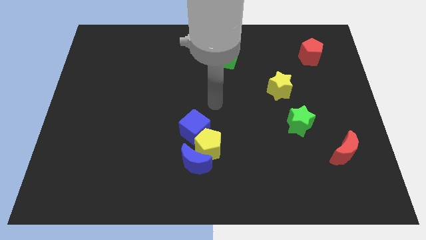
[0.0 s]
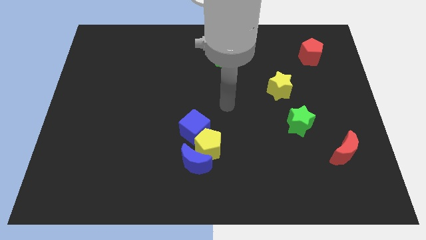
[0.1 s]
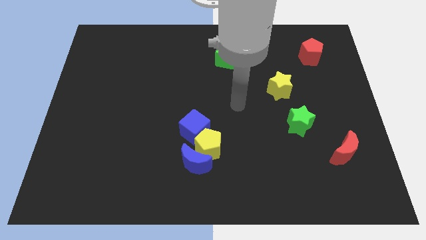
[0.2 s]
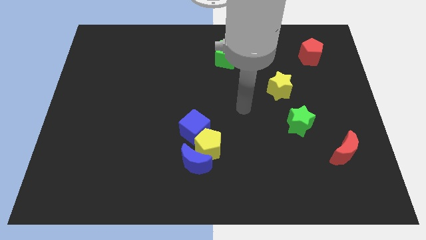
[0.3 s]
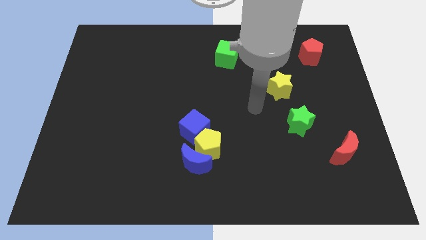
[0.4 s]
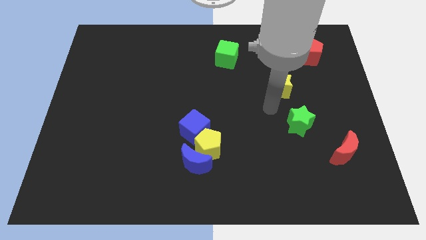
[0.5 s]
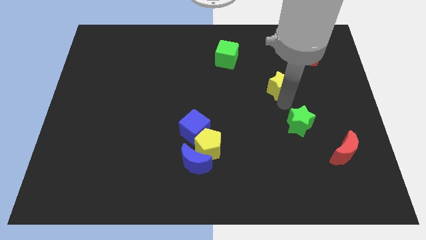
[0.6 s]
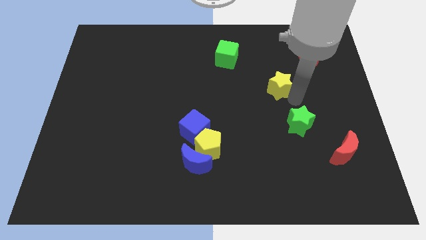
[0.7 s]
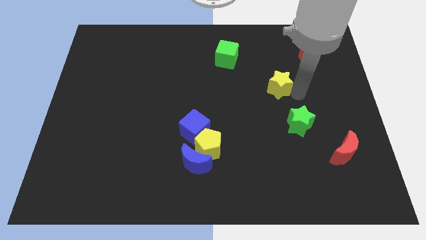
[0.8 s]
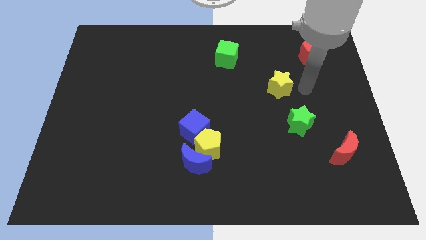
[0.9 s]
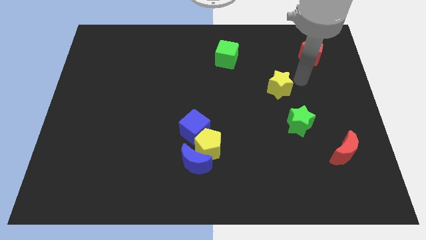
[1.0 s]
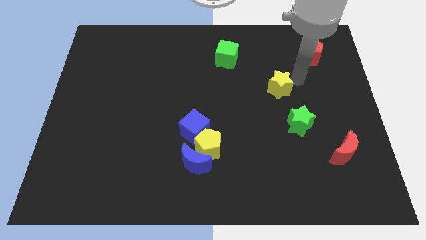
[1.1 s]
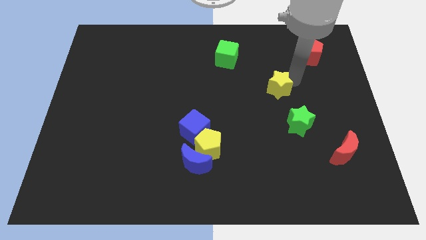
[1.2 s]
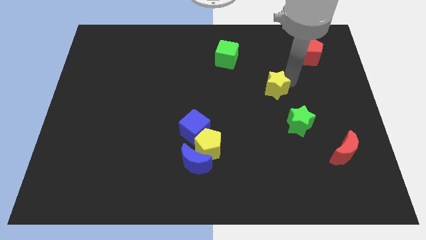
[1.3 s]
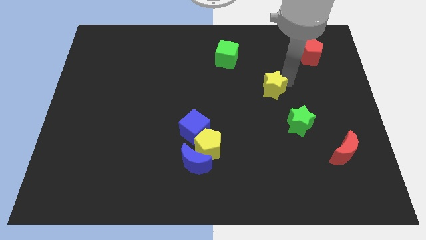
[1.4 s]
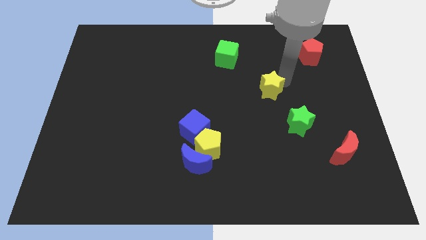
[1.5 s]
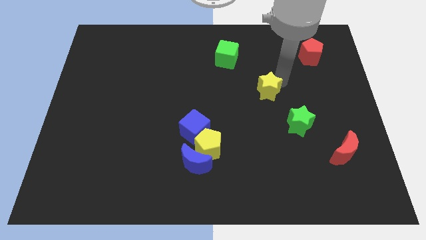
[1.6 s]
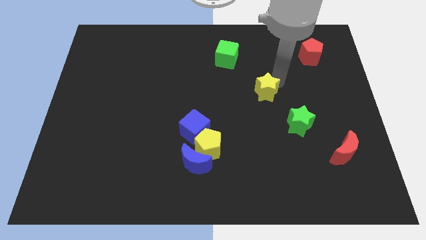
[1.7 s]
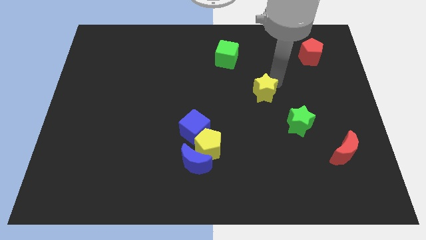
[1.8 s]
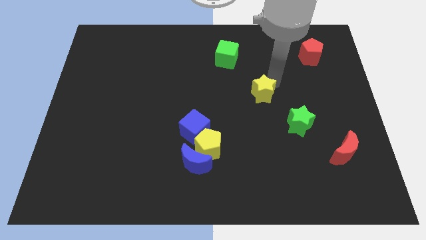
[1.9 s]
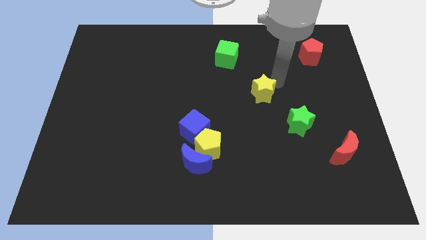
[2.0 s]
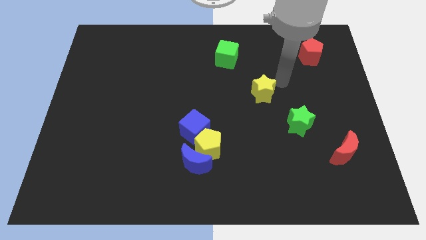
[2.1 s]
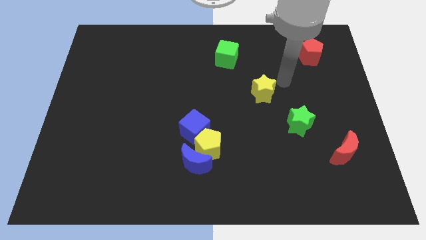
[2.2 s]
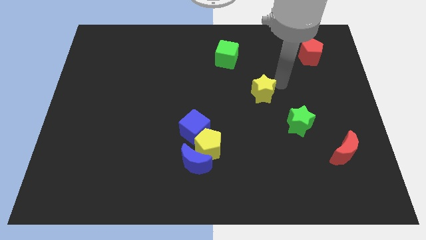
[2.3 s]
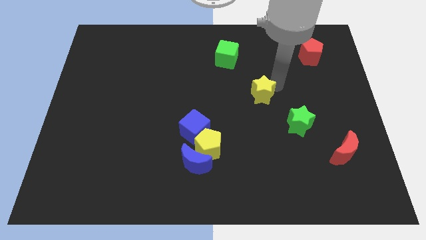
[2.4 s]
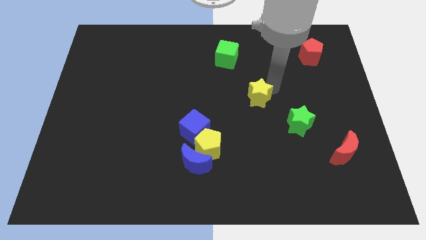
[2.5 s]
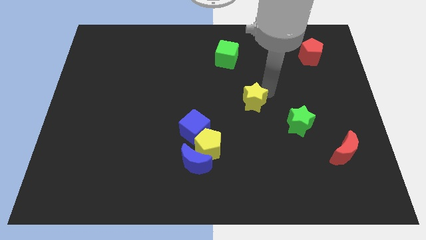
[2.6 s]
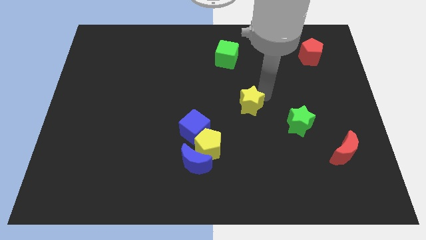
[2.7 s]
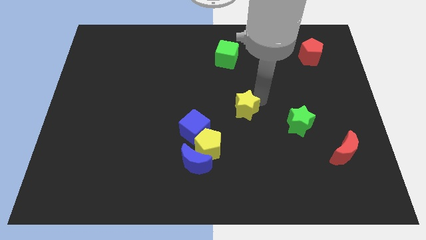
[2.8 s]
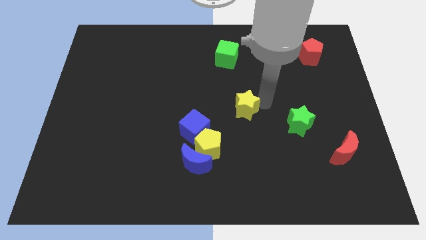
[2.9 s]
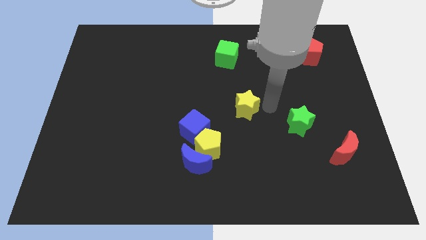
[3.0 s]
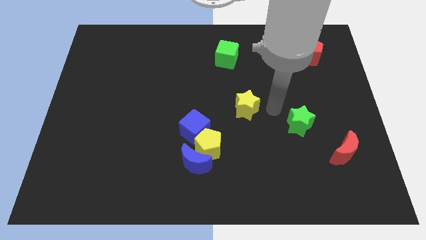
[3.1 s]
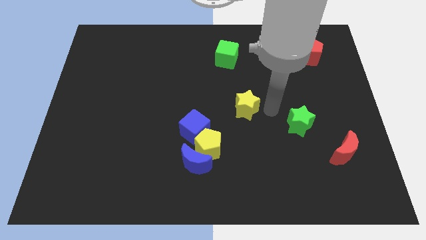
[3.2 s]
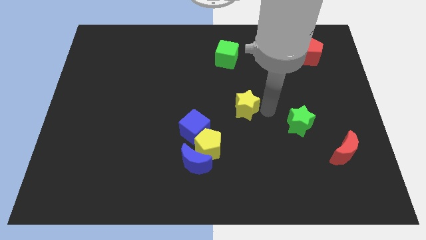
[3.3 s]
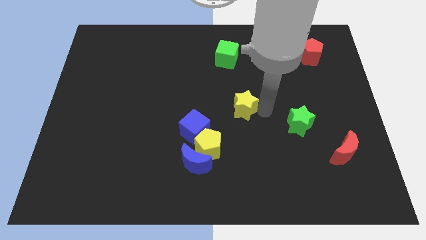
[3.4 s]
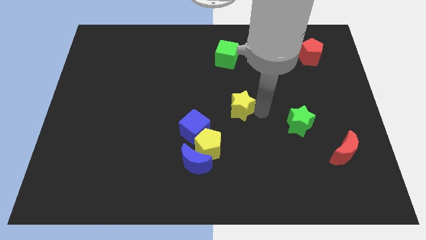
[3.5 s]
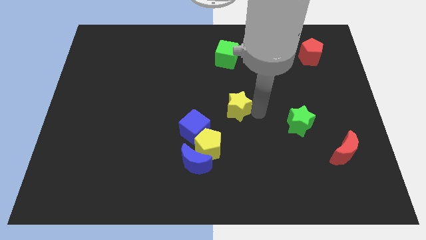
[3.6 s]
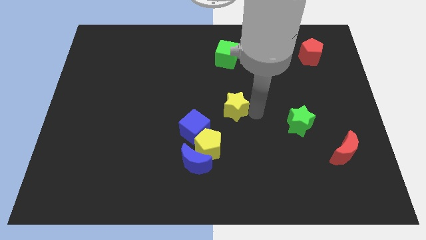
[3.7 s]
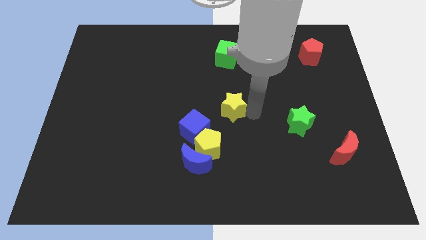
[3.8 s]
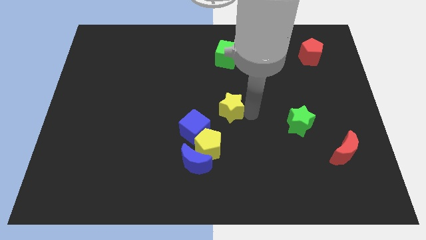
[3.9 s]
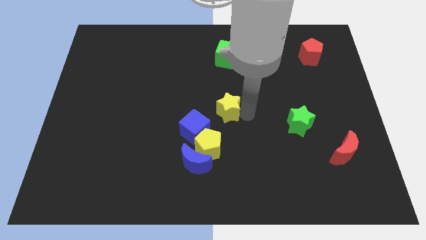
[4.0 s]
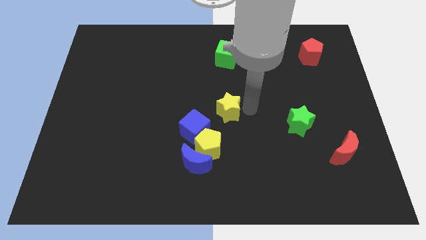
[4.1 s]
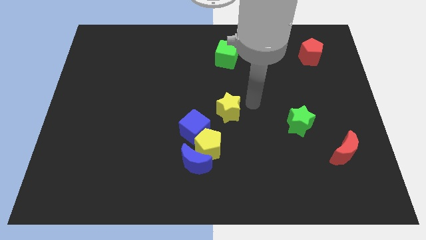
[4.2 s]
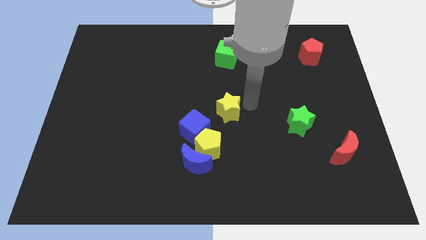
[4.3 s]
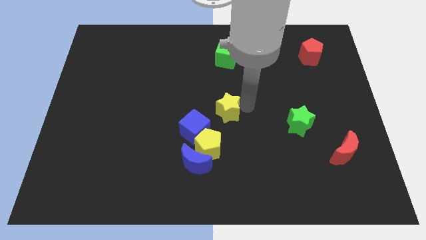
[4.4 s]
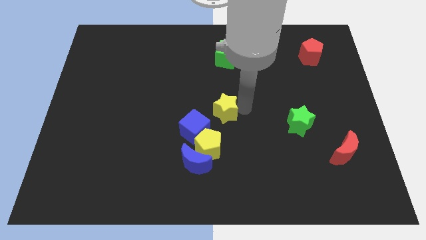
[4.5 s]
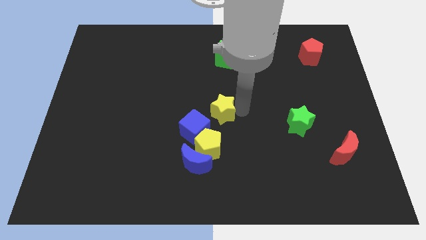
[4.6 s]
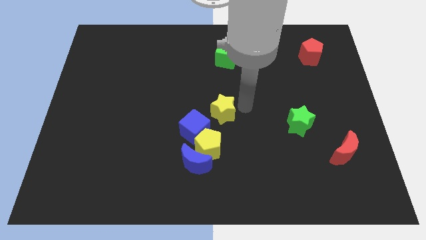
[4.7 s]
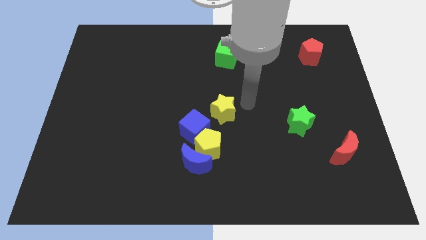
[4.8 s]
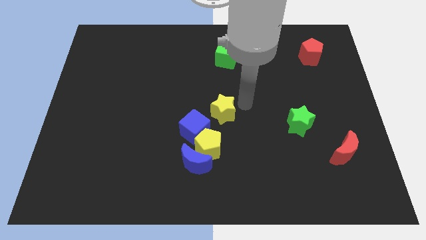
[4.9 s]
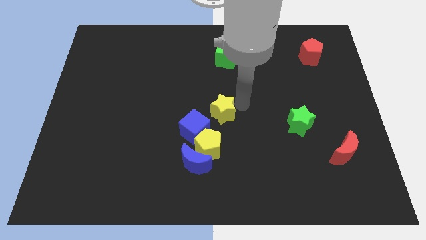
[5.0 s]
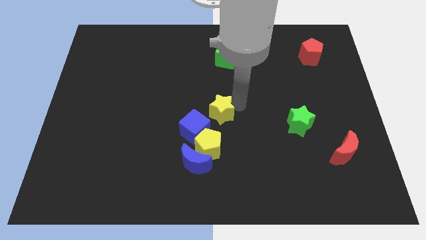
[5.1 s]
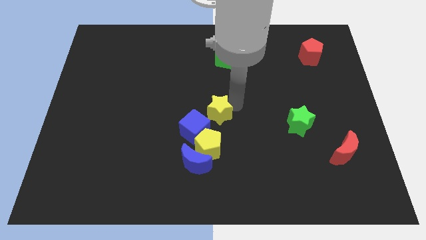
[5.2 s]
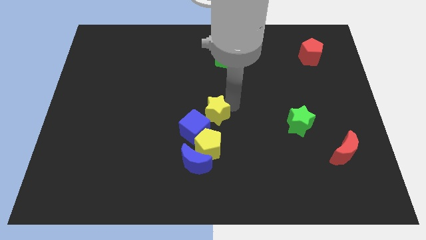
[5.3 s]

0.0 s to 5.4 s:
slide the yellow star to the top side of the blue moon

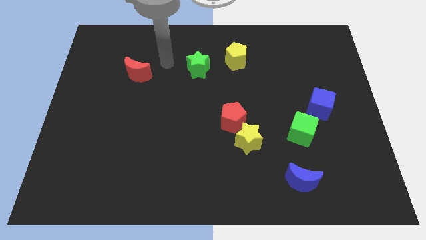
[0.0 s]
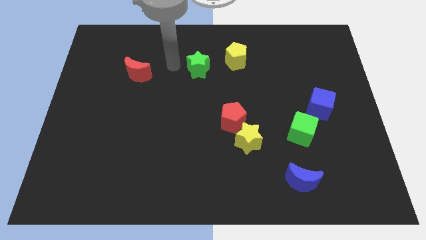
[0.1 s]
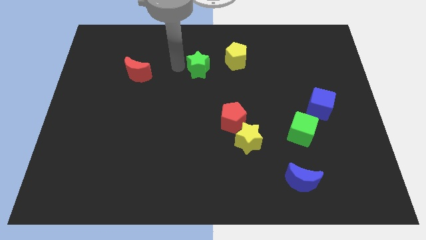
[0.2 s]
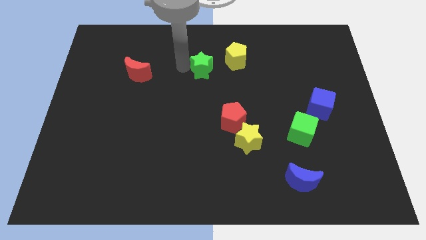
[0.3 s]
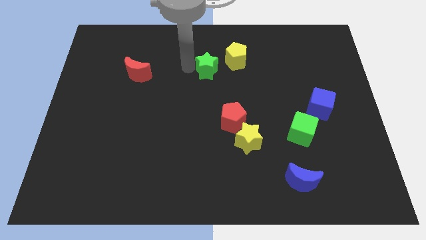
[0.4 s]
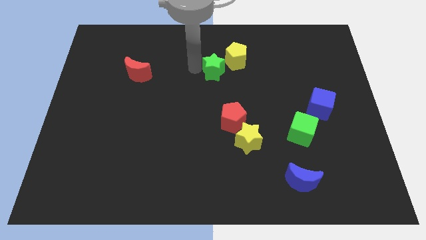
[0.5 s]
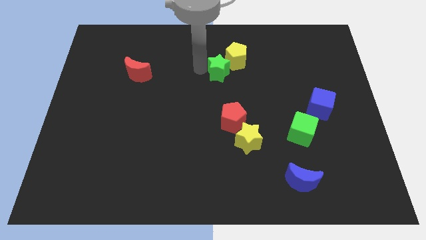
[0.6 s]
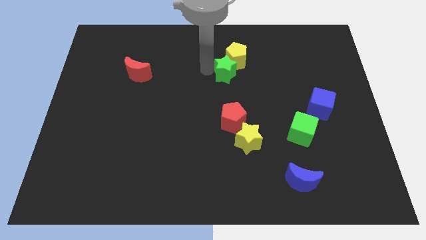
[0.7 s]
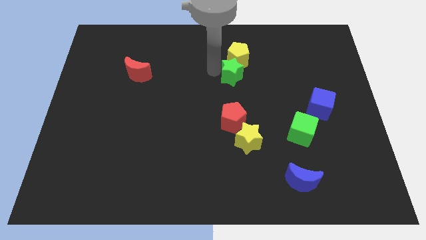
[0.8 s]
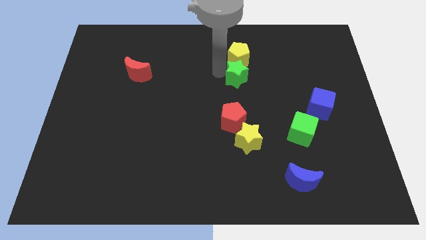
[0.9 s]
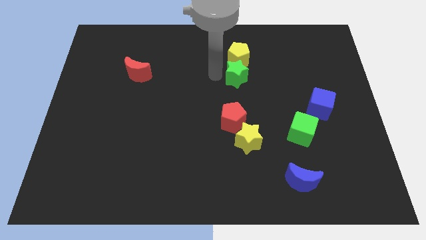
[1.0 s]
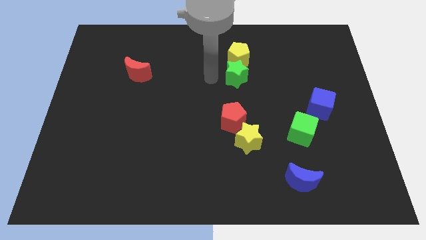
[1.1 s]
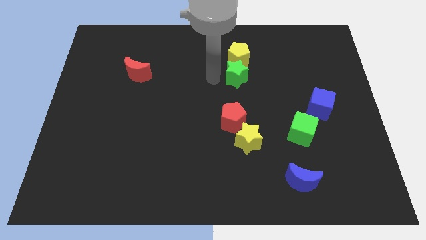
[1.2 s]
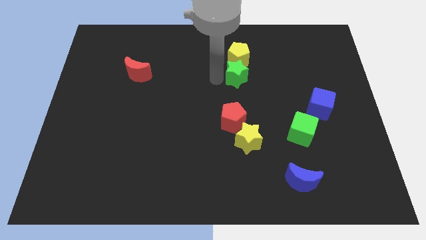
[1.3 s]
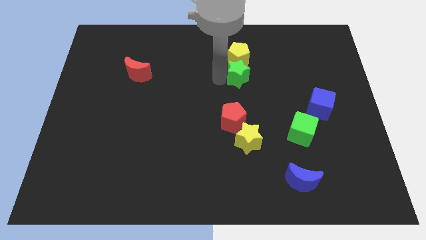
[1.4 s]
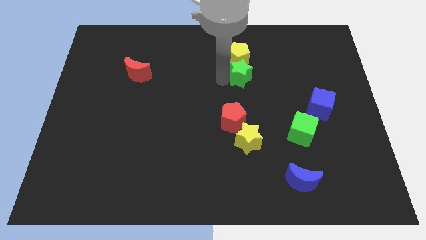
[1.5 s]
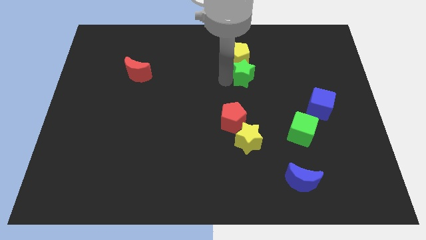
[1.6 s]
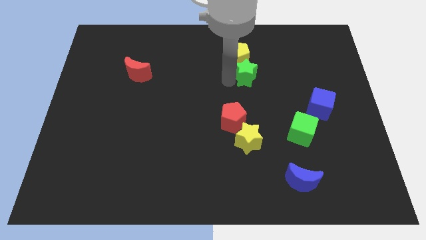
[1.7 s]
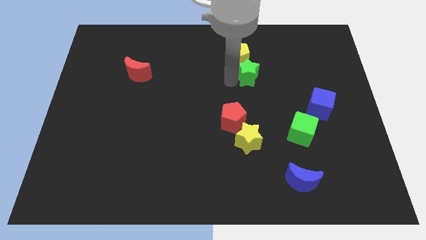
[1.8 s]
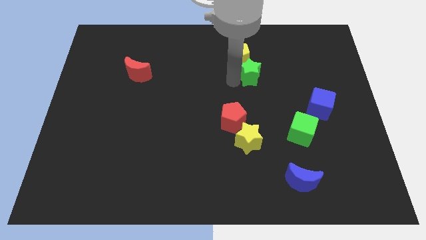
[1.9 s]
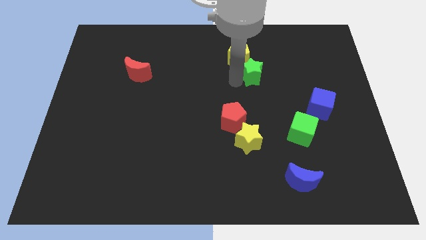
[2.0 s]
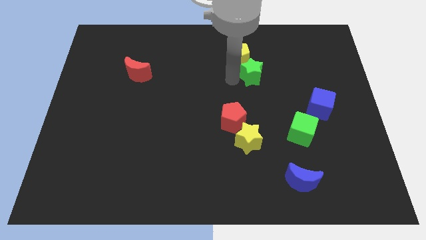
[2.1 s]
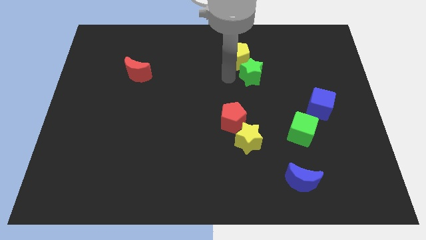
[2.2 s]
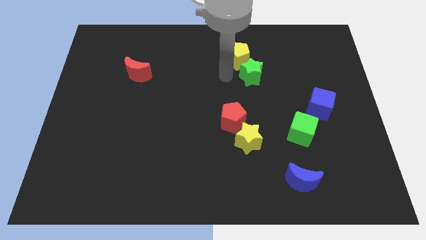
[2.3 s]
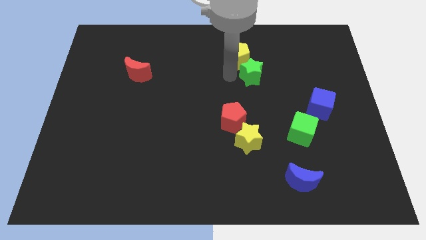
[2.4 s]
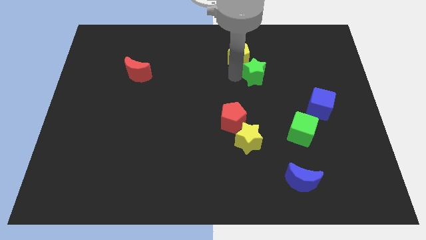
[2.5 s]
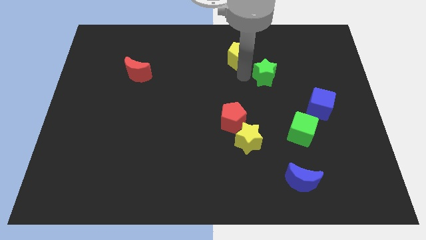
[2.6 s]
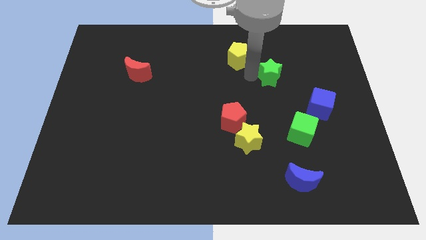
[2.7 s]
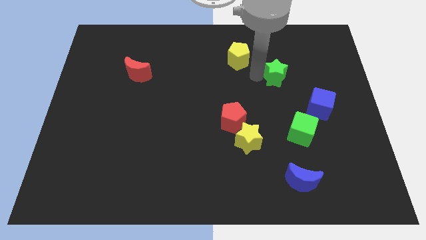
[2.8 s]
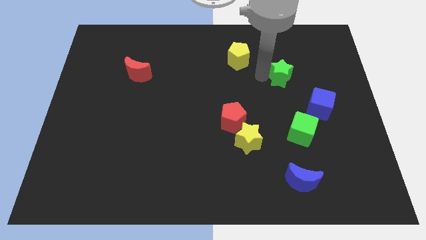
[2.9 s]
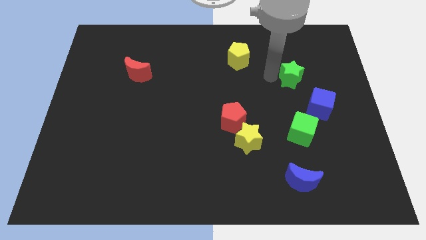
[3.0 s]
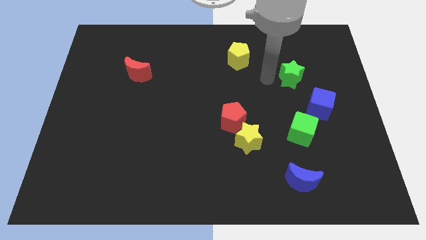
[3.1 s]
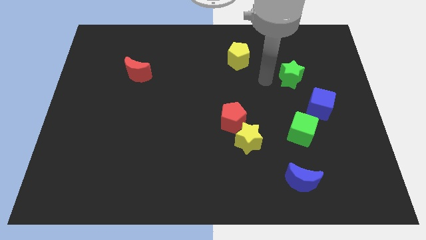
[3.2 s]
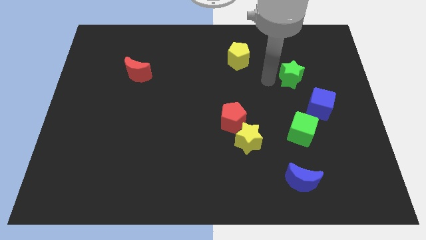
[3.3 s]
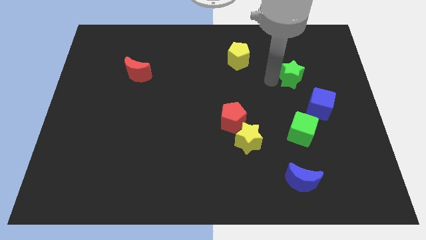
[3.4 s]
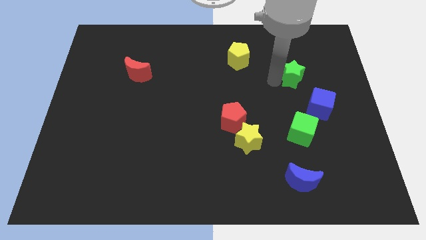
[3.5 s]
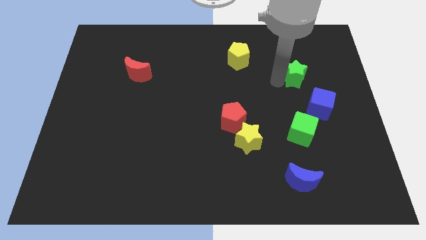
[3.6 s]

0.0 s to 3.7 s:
put the green star to the top side of the blue cube
